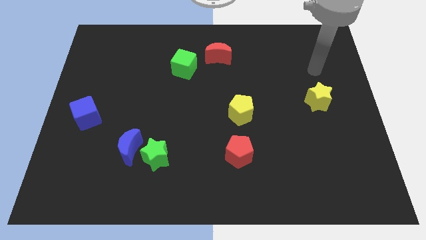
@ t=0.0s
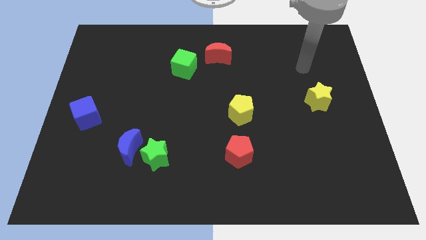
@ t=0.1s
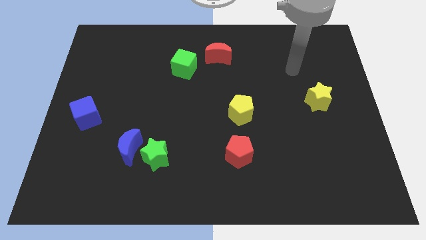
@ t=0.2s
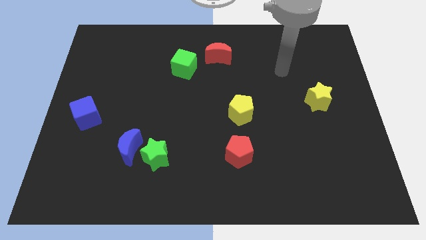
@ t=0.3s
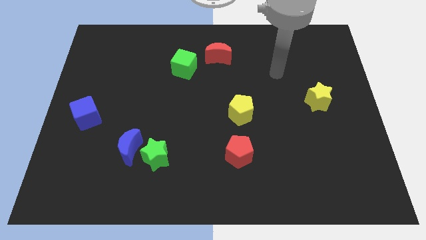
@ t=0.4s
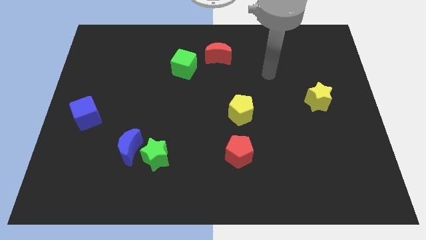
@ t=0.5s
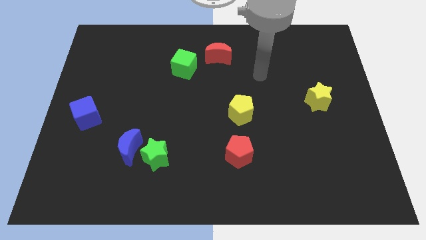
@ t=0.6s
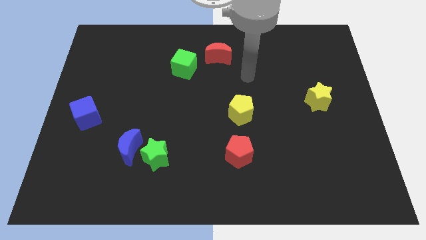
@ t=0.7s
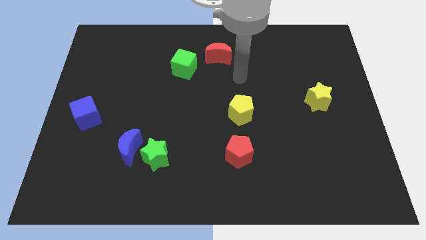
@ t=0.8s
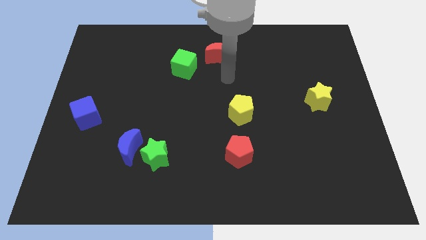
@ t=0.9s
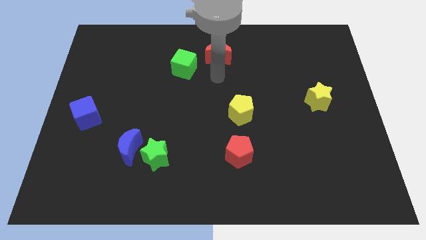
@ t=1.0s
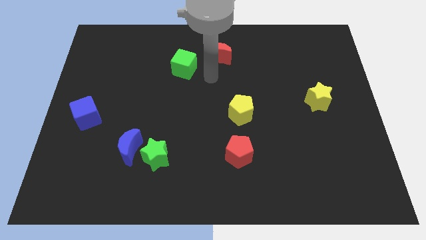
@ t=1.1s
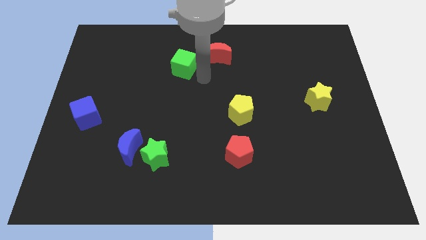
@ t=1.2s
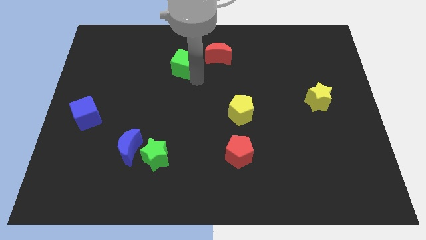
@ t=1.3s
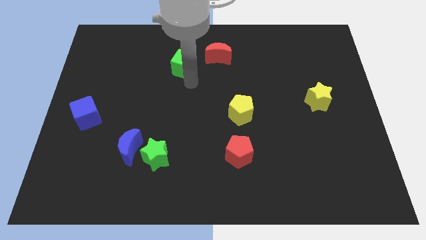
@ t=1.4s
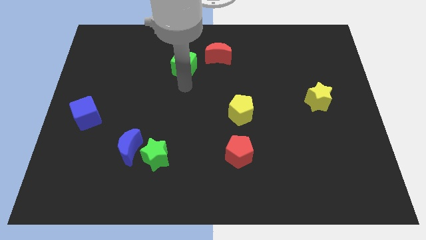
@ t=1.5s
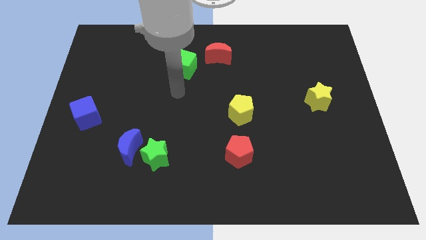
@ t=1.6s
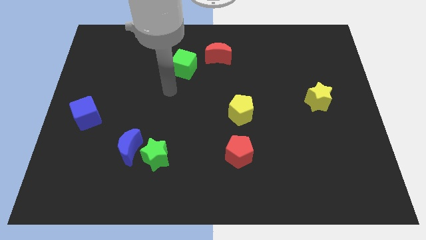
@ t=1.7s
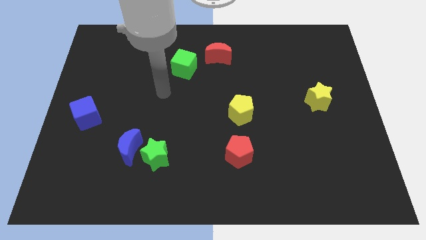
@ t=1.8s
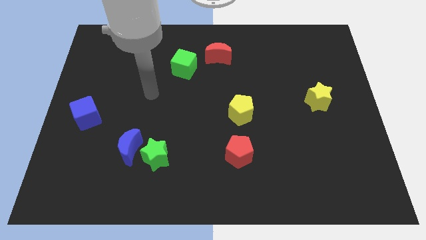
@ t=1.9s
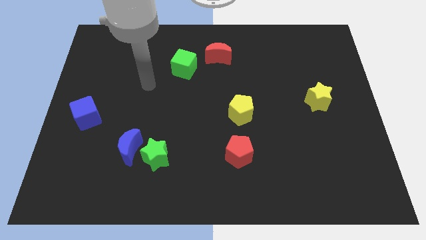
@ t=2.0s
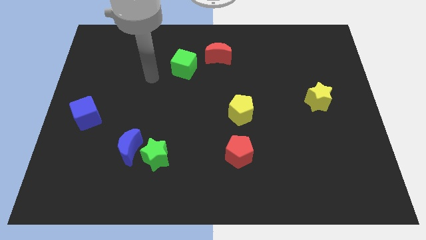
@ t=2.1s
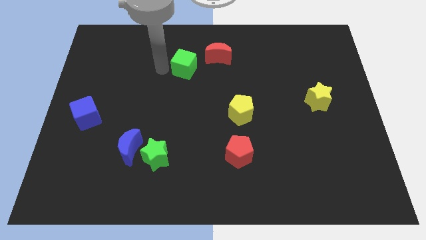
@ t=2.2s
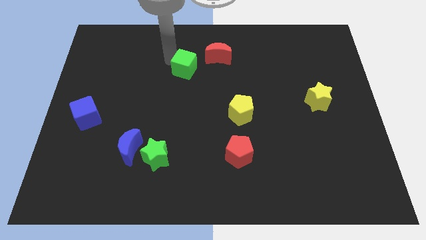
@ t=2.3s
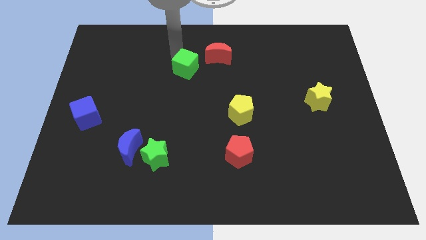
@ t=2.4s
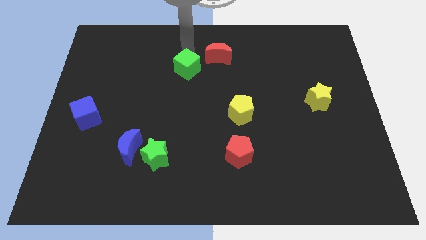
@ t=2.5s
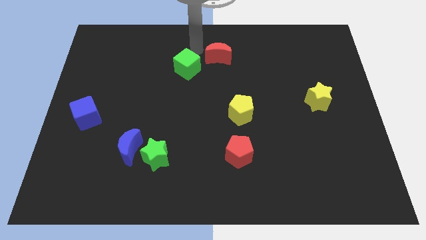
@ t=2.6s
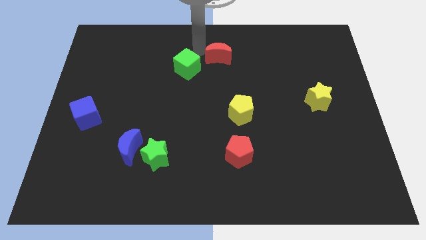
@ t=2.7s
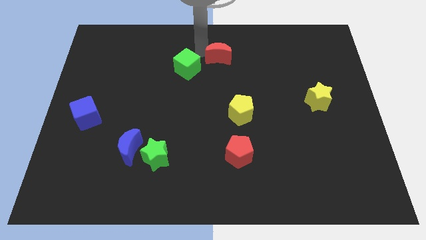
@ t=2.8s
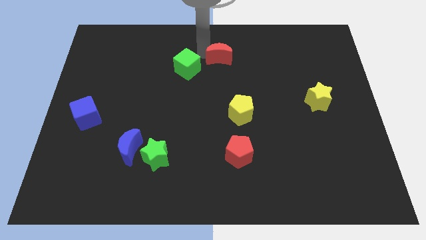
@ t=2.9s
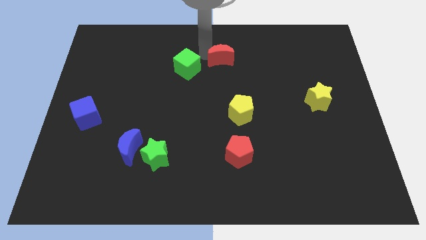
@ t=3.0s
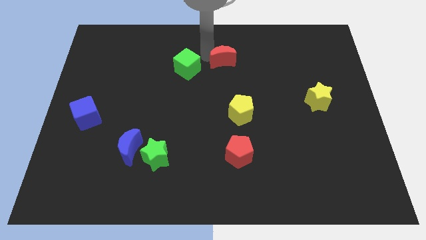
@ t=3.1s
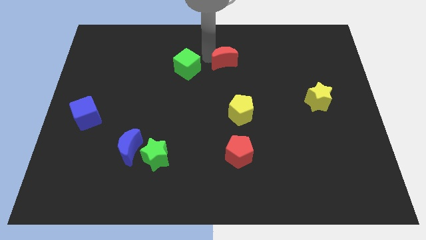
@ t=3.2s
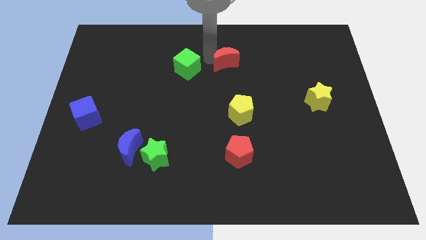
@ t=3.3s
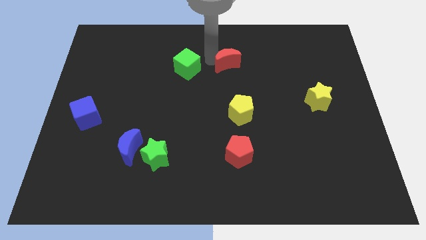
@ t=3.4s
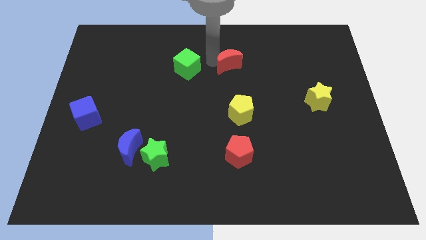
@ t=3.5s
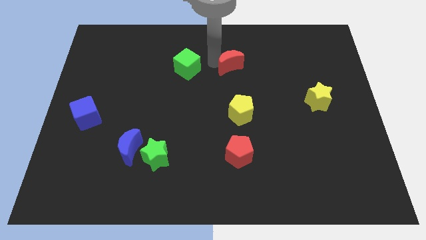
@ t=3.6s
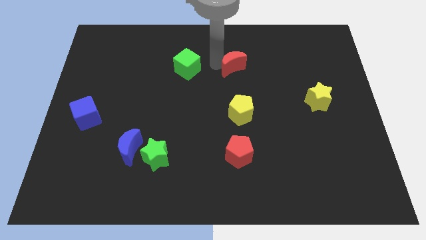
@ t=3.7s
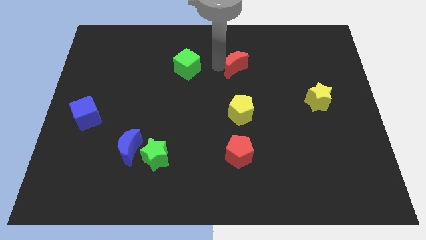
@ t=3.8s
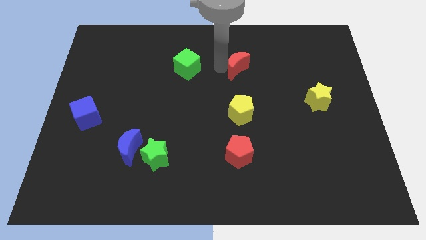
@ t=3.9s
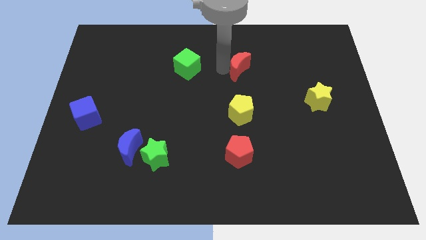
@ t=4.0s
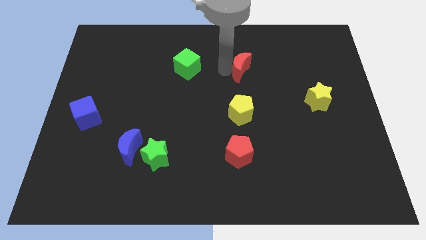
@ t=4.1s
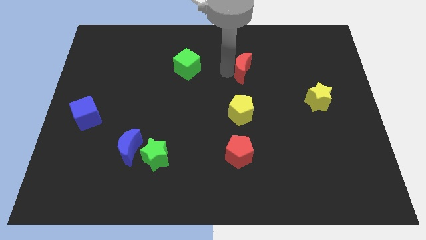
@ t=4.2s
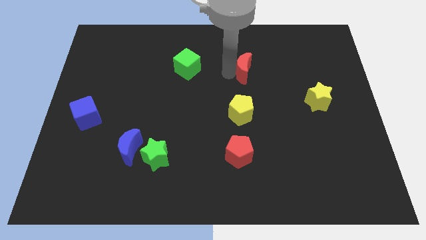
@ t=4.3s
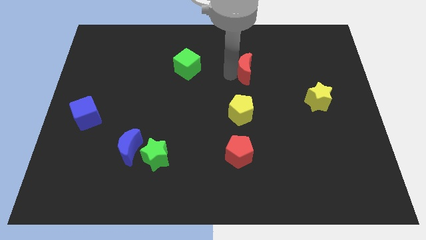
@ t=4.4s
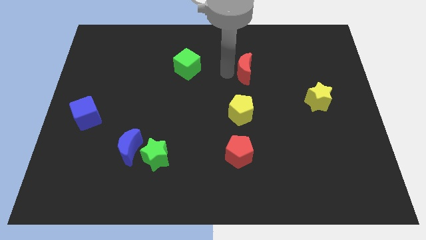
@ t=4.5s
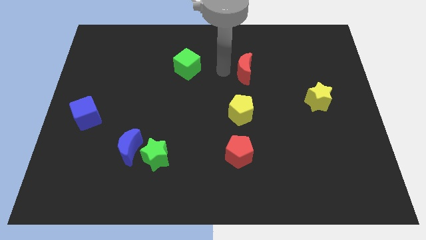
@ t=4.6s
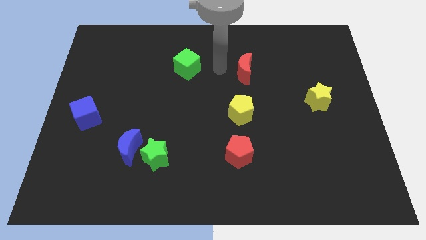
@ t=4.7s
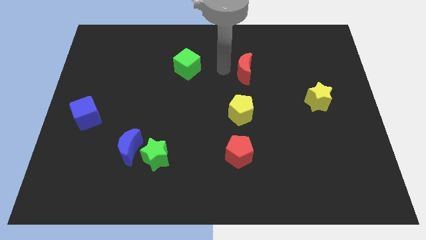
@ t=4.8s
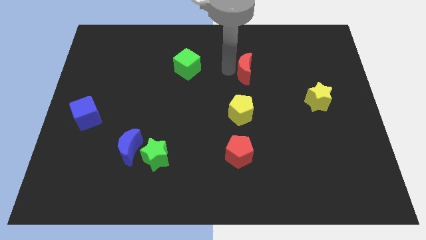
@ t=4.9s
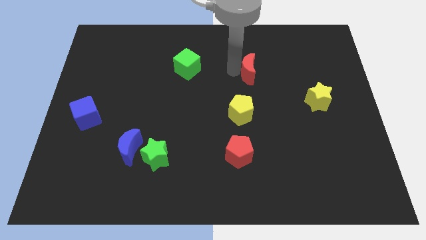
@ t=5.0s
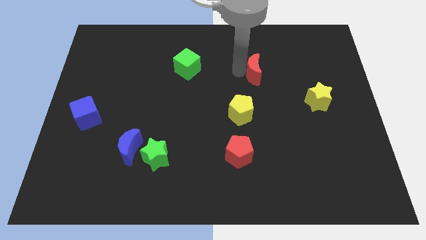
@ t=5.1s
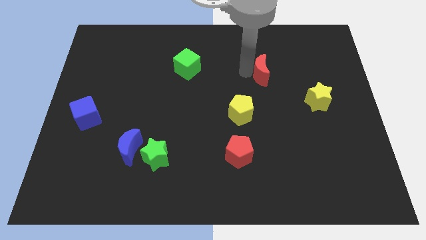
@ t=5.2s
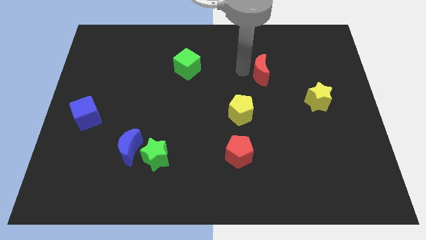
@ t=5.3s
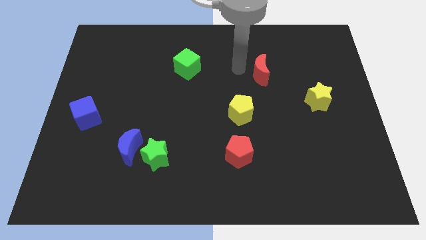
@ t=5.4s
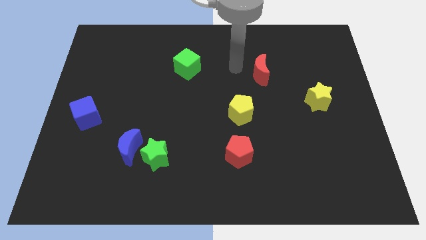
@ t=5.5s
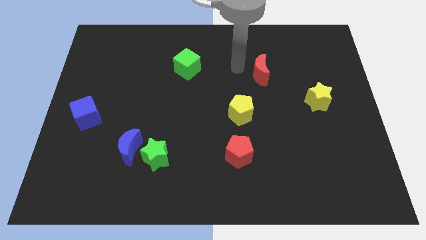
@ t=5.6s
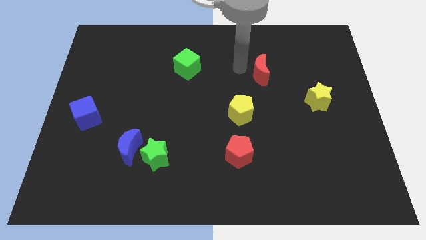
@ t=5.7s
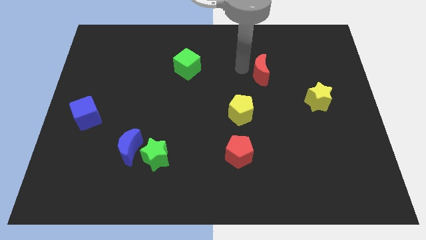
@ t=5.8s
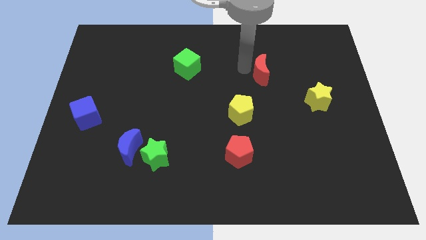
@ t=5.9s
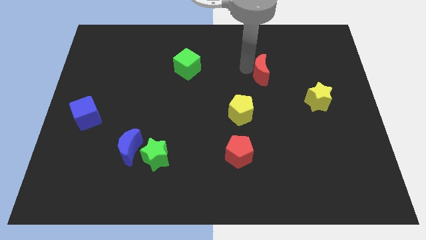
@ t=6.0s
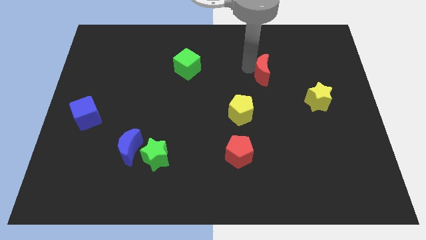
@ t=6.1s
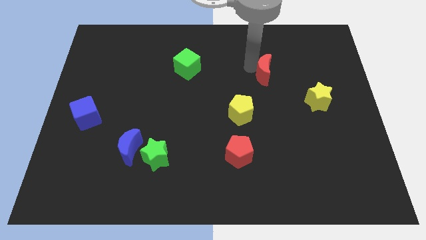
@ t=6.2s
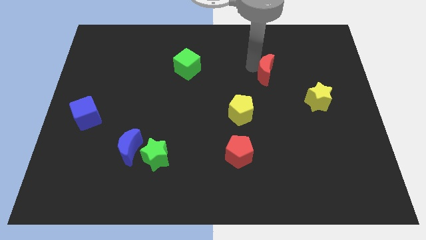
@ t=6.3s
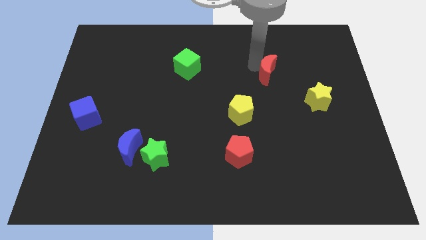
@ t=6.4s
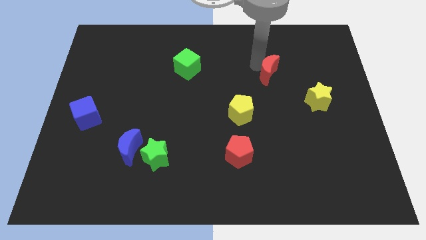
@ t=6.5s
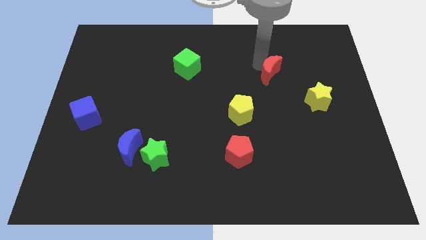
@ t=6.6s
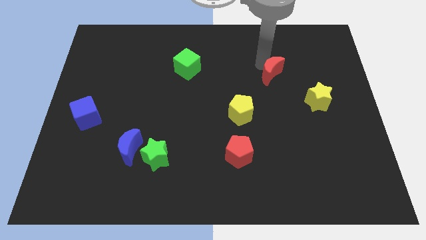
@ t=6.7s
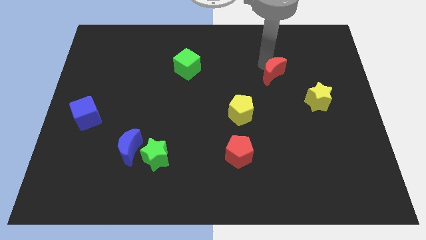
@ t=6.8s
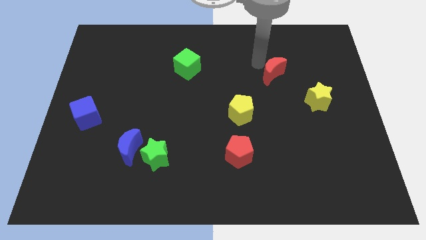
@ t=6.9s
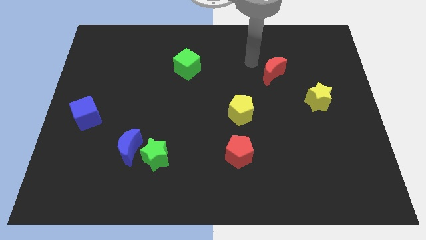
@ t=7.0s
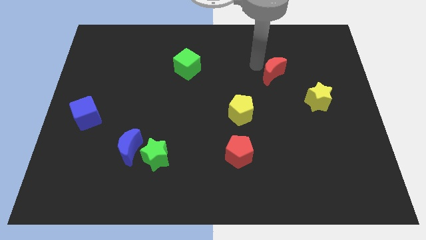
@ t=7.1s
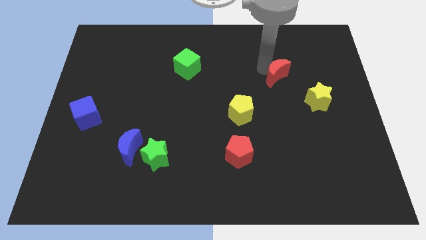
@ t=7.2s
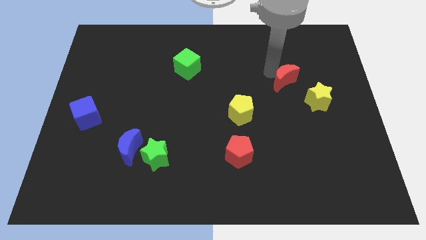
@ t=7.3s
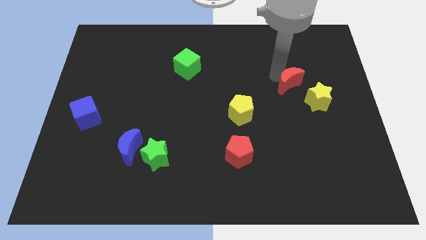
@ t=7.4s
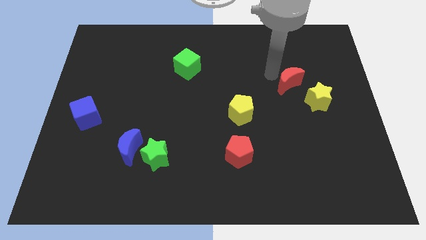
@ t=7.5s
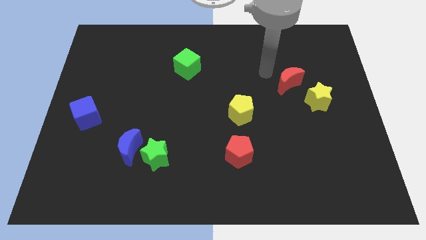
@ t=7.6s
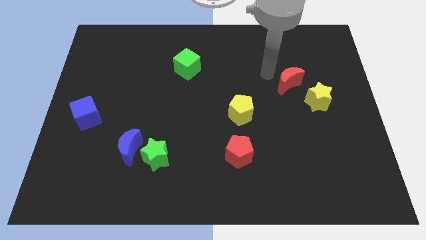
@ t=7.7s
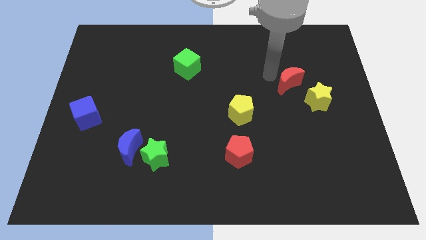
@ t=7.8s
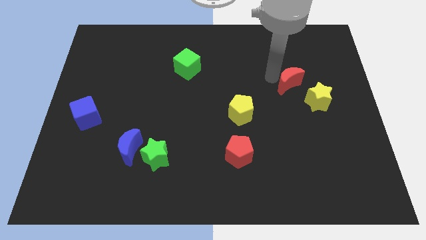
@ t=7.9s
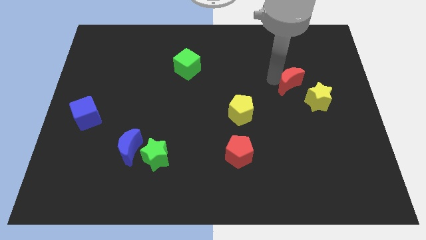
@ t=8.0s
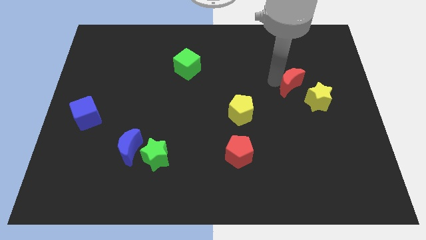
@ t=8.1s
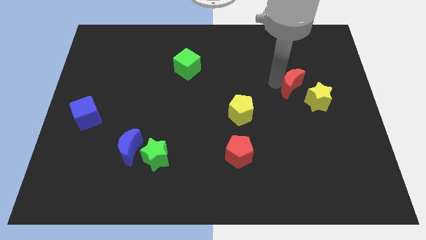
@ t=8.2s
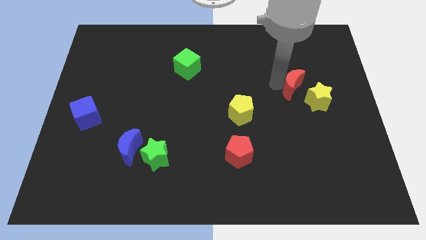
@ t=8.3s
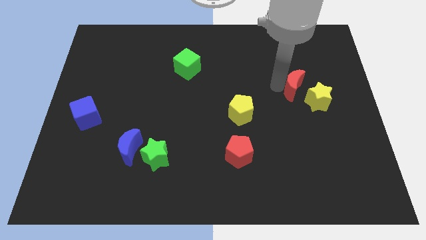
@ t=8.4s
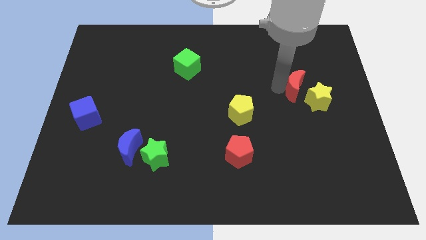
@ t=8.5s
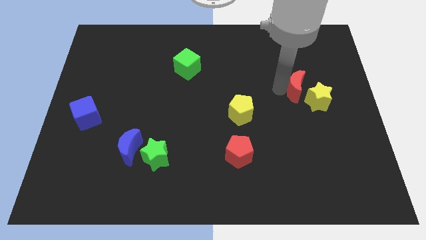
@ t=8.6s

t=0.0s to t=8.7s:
push the red moon to the yellow star
